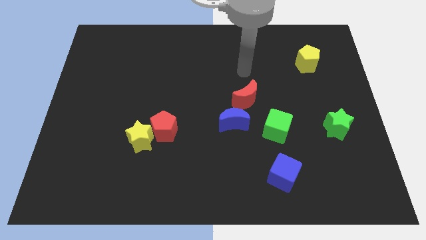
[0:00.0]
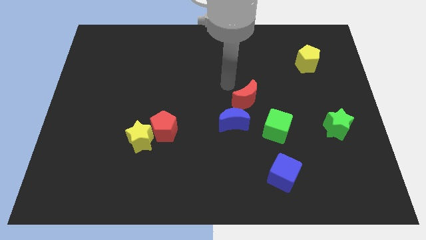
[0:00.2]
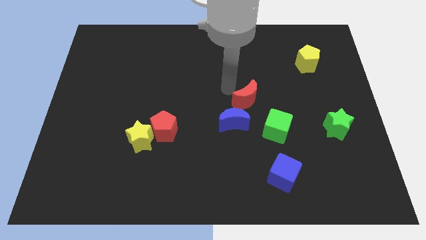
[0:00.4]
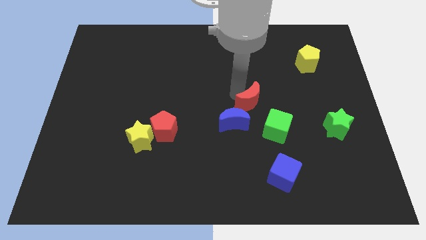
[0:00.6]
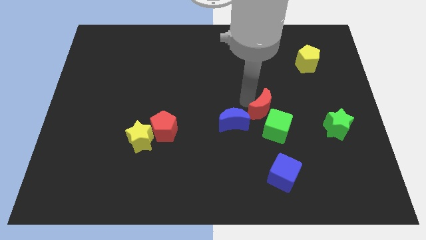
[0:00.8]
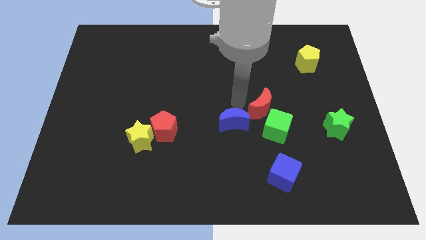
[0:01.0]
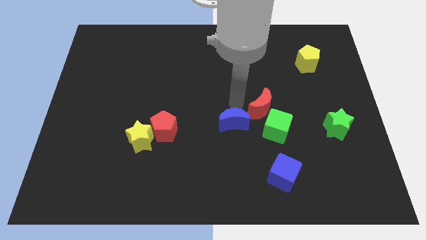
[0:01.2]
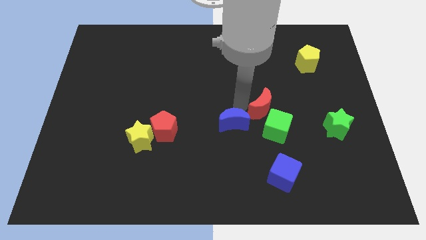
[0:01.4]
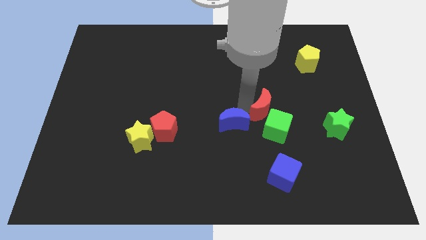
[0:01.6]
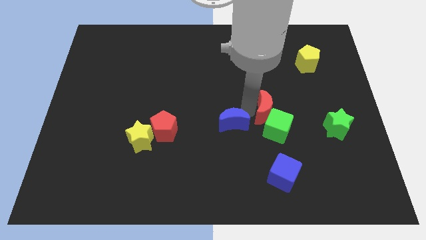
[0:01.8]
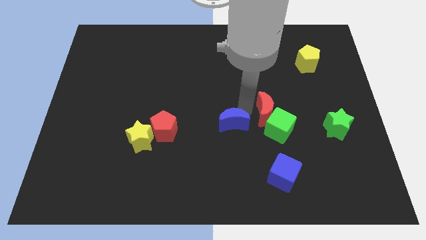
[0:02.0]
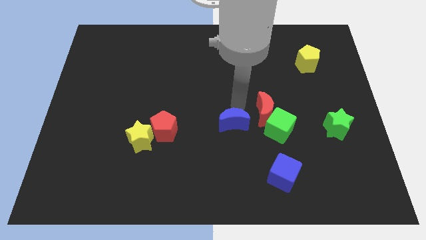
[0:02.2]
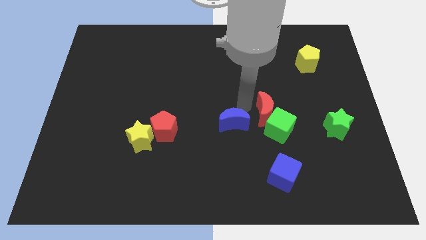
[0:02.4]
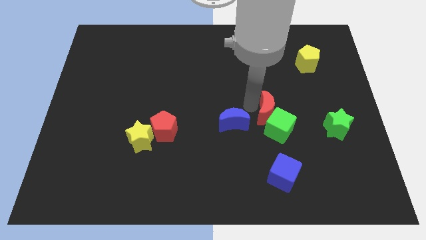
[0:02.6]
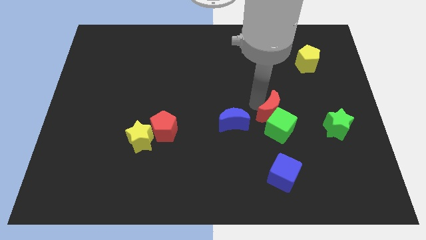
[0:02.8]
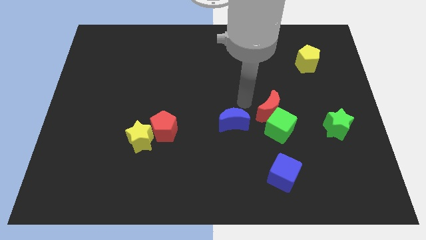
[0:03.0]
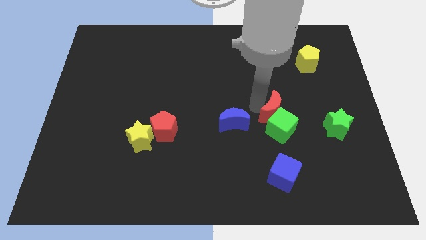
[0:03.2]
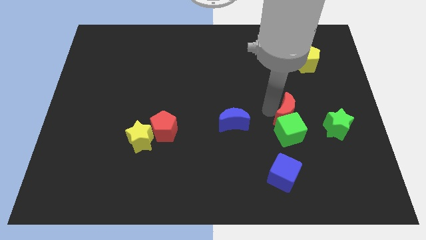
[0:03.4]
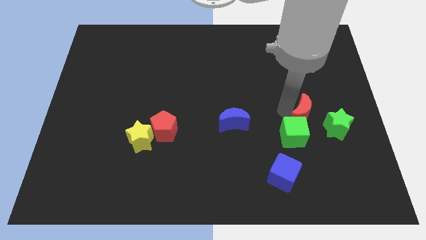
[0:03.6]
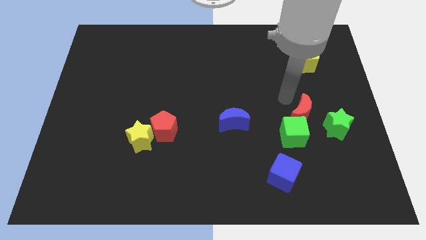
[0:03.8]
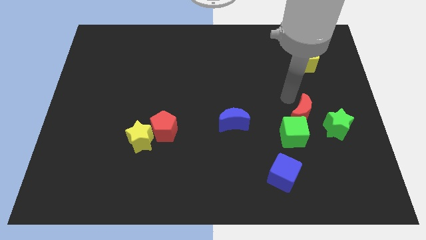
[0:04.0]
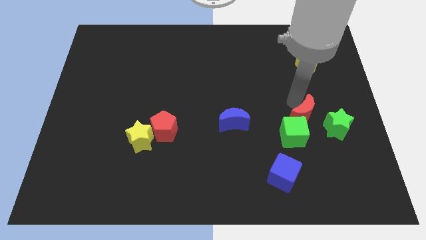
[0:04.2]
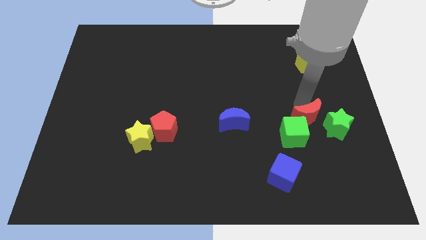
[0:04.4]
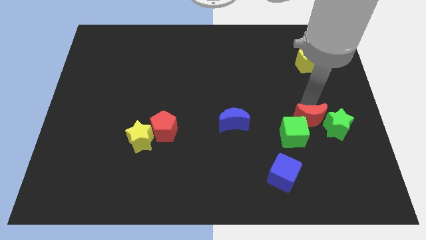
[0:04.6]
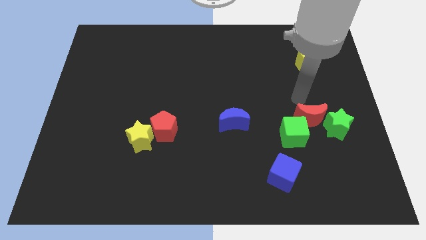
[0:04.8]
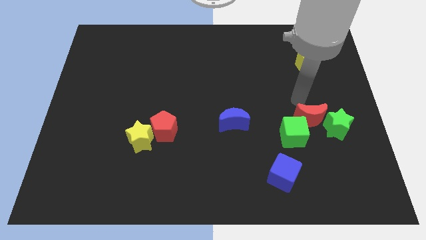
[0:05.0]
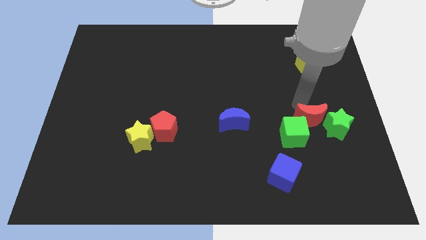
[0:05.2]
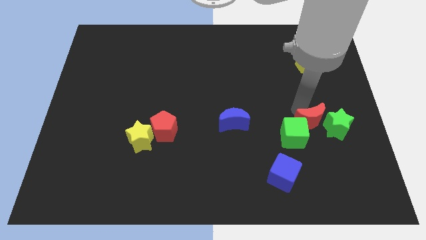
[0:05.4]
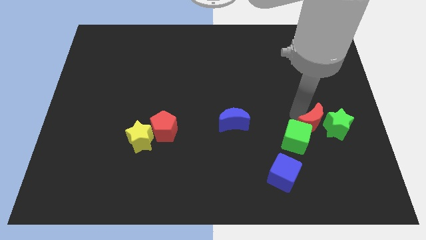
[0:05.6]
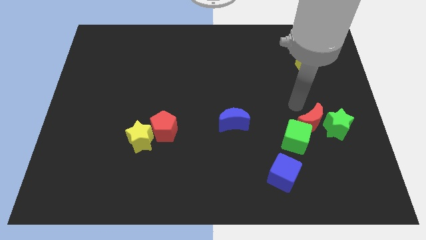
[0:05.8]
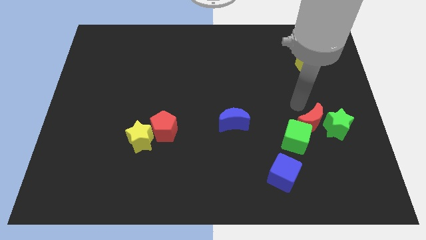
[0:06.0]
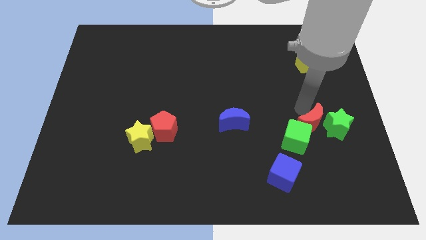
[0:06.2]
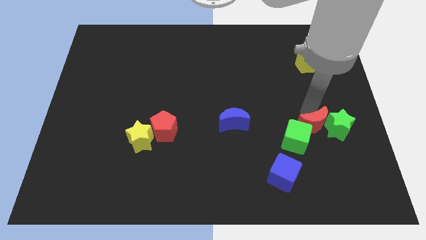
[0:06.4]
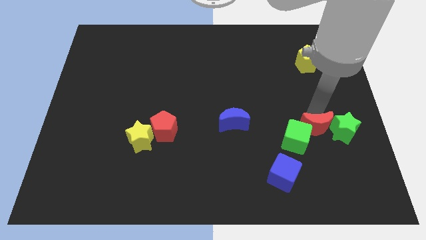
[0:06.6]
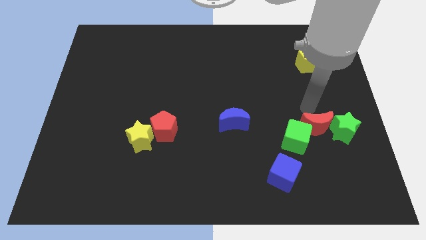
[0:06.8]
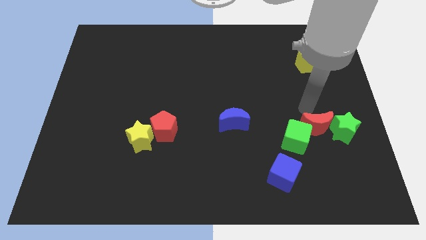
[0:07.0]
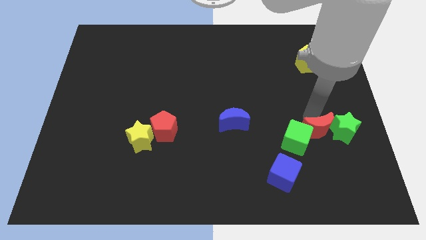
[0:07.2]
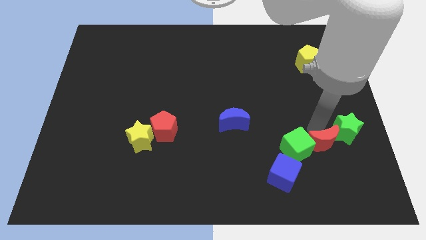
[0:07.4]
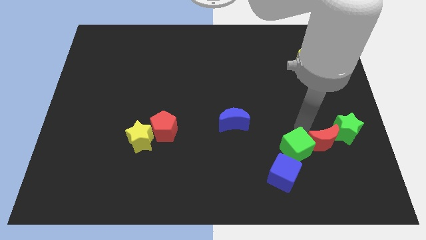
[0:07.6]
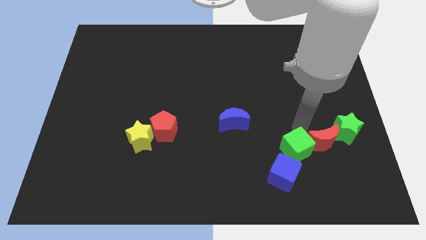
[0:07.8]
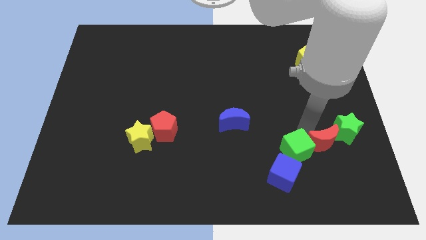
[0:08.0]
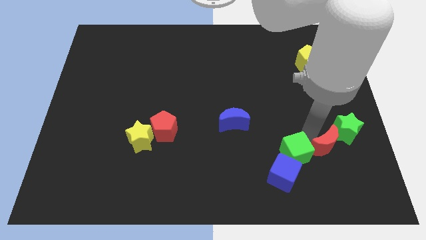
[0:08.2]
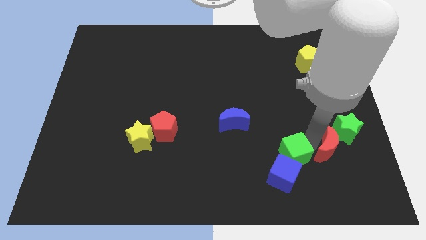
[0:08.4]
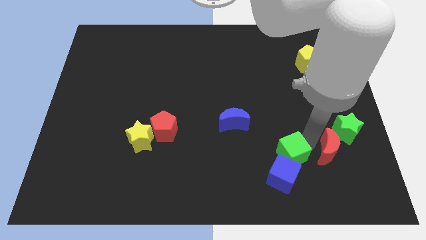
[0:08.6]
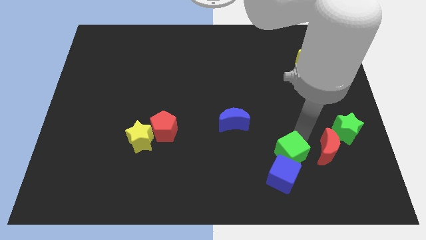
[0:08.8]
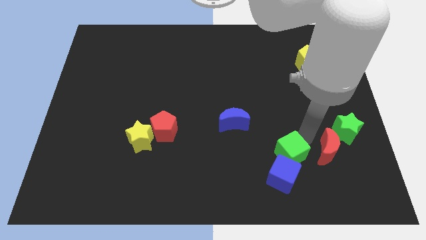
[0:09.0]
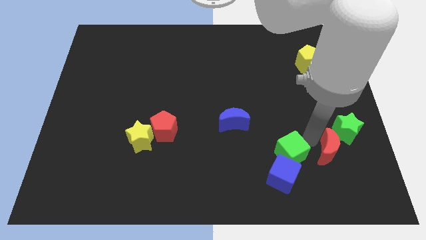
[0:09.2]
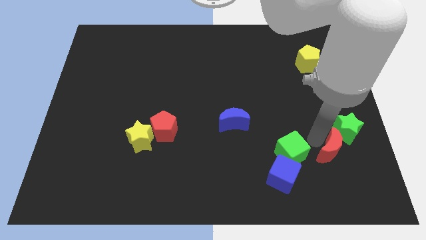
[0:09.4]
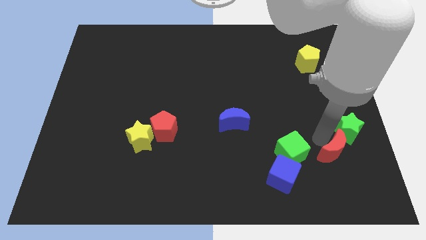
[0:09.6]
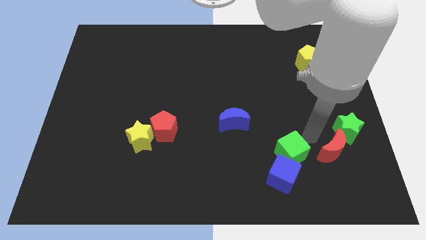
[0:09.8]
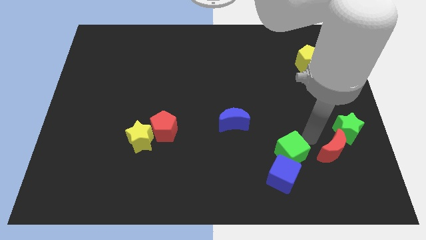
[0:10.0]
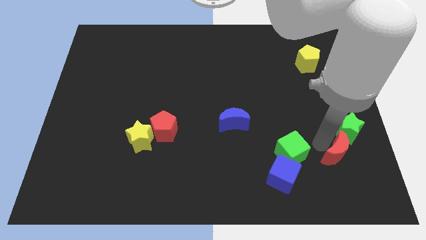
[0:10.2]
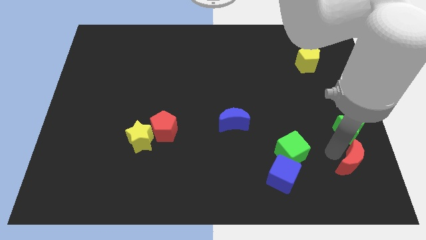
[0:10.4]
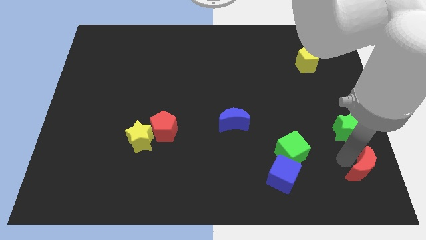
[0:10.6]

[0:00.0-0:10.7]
slide the red moon to the bottom right of the board

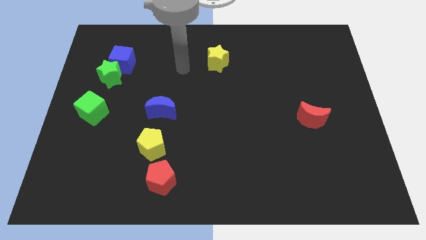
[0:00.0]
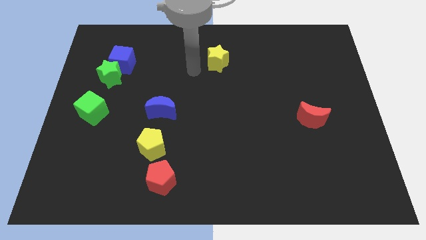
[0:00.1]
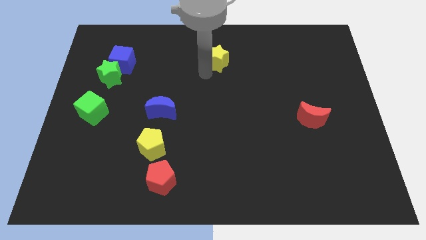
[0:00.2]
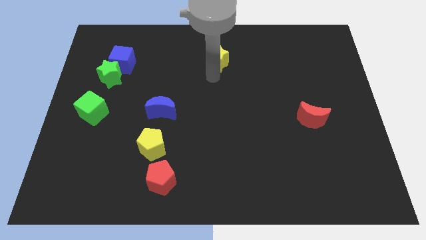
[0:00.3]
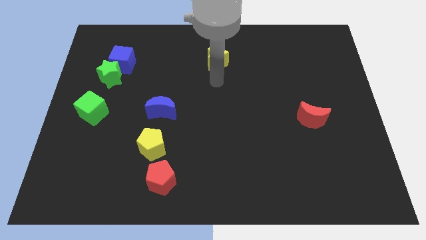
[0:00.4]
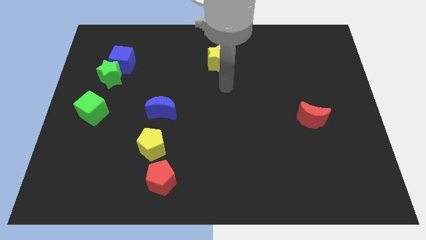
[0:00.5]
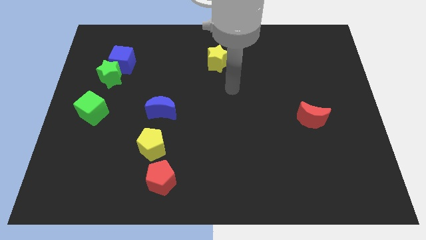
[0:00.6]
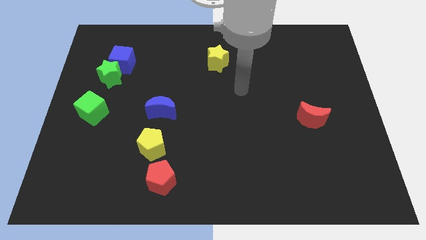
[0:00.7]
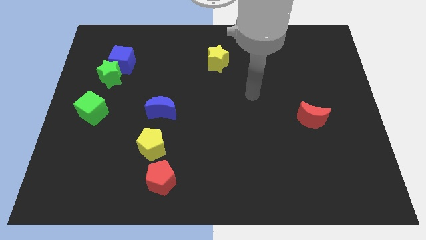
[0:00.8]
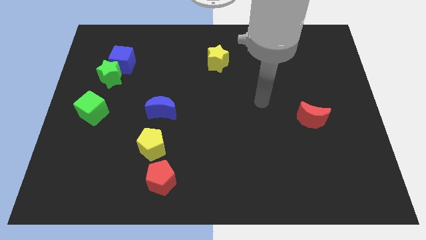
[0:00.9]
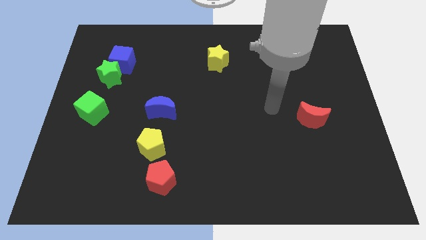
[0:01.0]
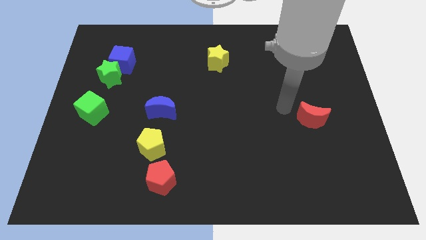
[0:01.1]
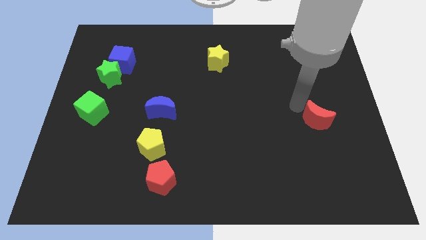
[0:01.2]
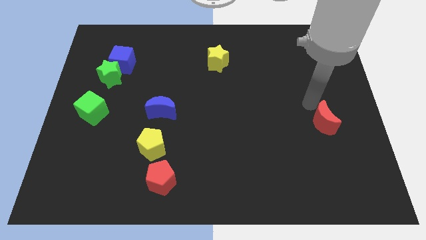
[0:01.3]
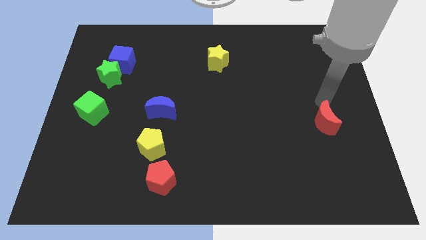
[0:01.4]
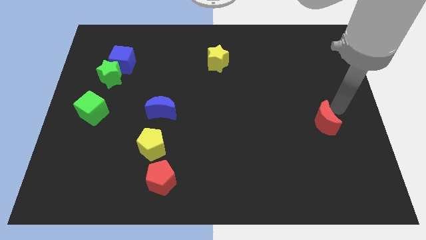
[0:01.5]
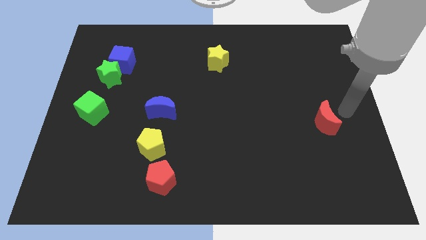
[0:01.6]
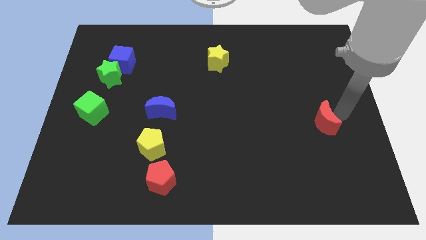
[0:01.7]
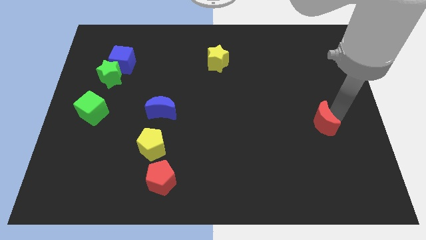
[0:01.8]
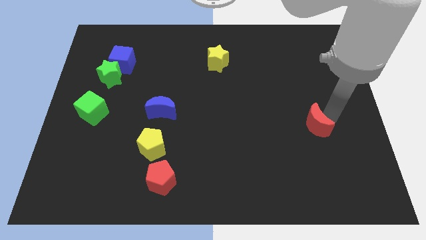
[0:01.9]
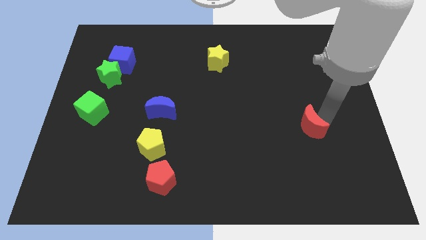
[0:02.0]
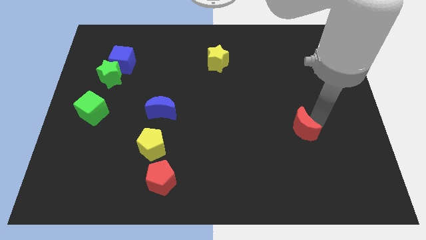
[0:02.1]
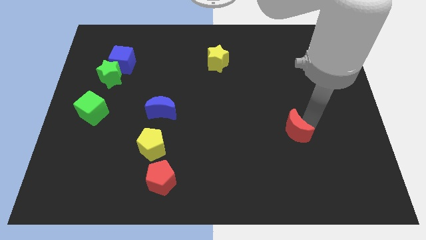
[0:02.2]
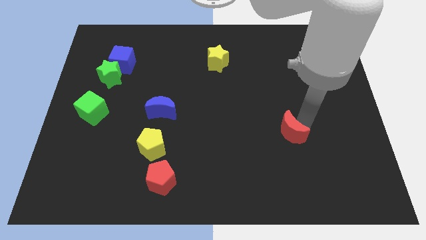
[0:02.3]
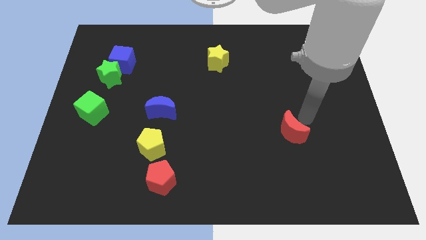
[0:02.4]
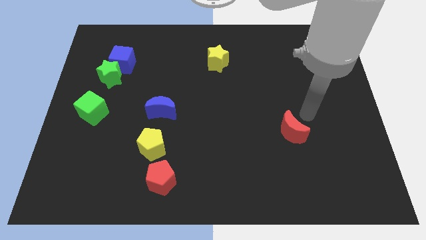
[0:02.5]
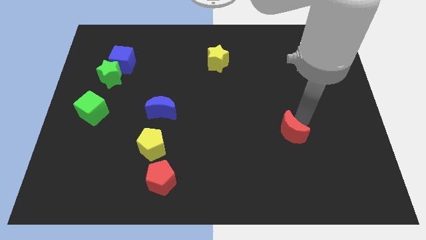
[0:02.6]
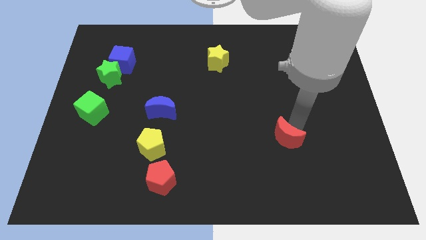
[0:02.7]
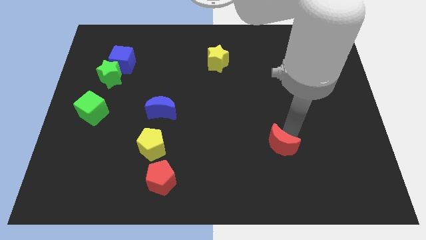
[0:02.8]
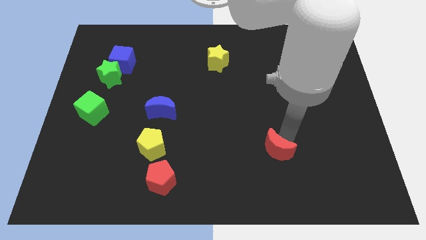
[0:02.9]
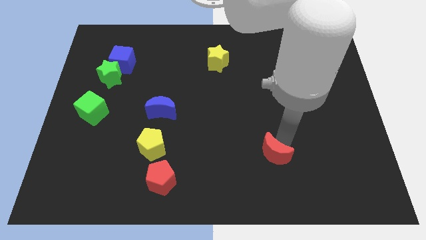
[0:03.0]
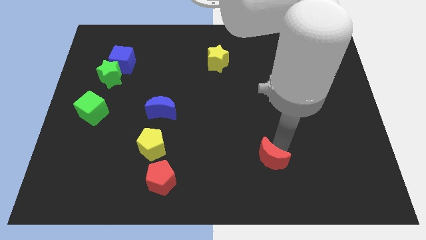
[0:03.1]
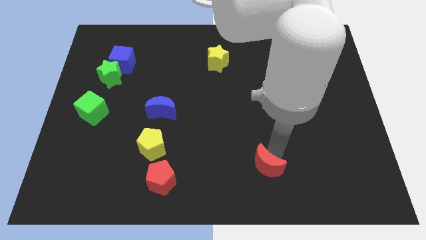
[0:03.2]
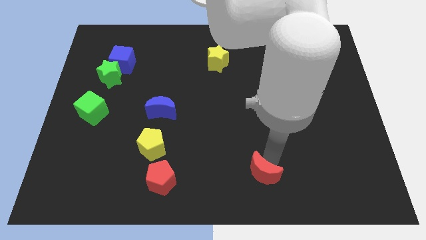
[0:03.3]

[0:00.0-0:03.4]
move the red moon to the bottom
